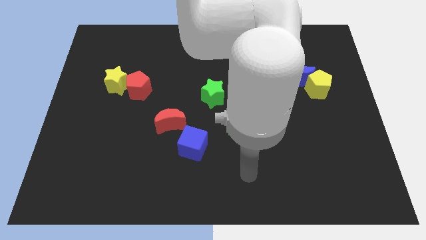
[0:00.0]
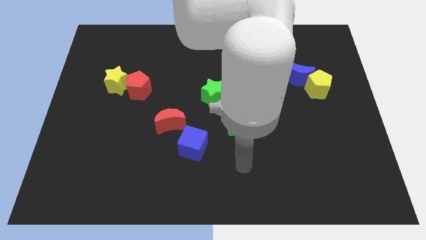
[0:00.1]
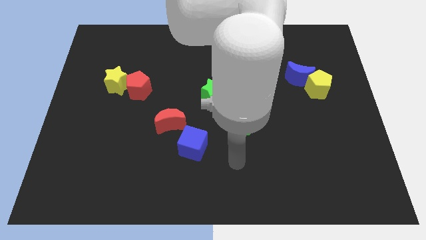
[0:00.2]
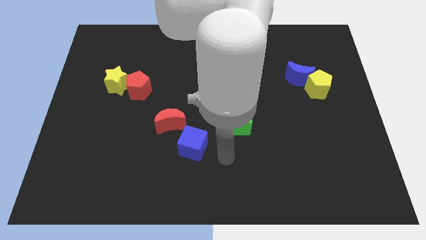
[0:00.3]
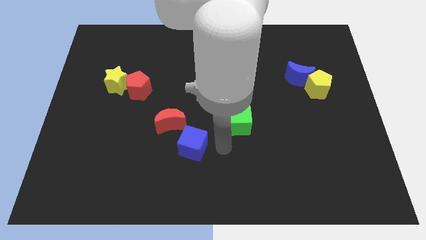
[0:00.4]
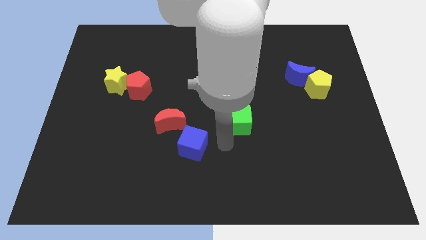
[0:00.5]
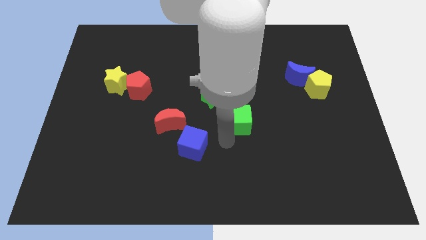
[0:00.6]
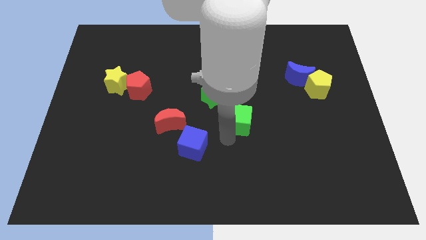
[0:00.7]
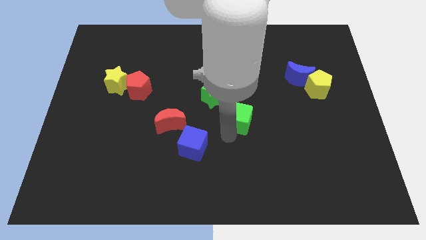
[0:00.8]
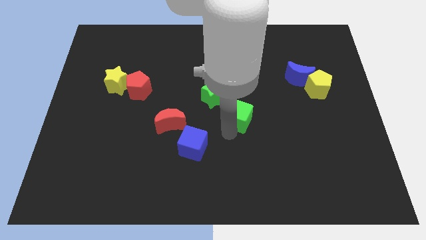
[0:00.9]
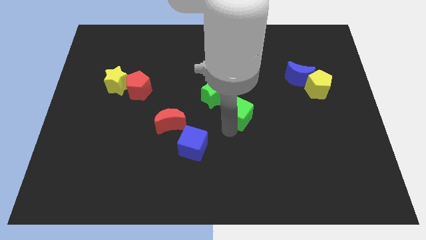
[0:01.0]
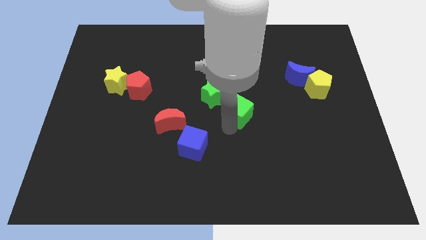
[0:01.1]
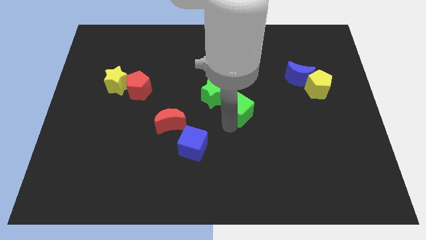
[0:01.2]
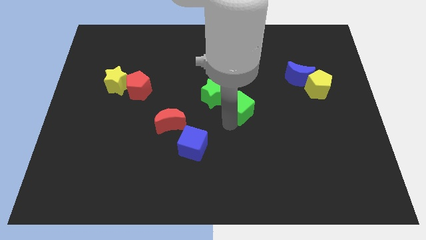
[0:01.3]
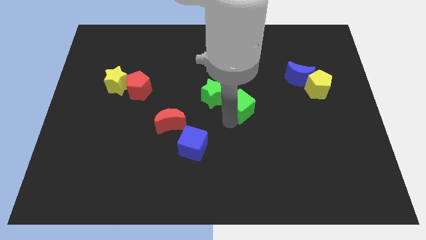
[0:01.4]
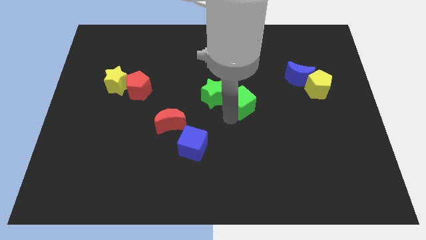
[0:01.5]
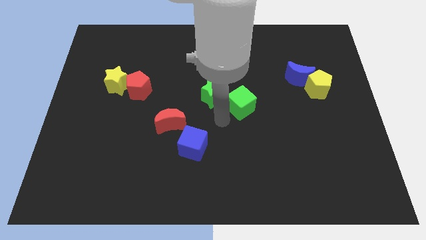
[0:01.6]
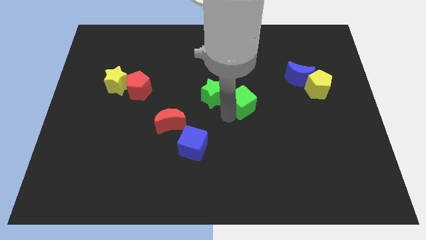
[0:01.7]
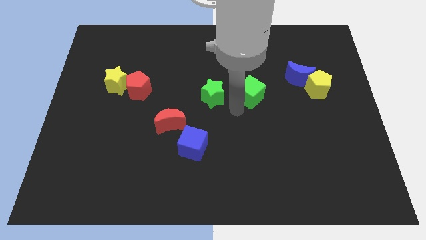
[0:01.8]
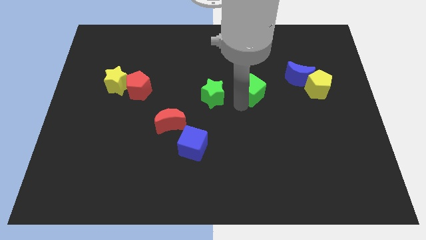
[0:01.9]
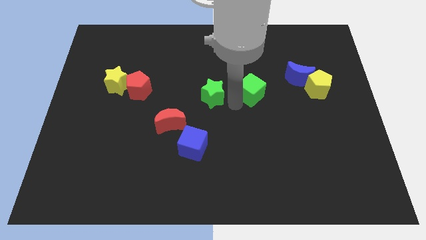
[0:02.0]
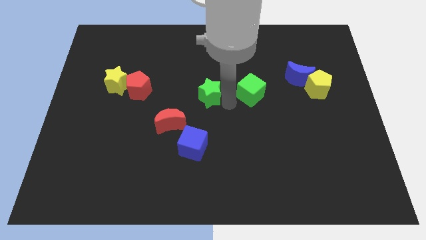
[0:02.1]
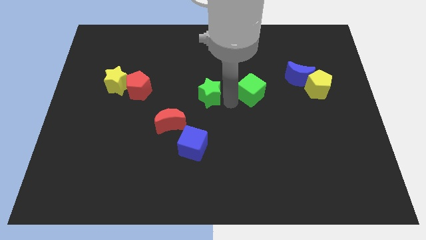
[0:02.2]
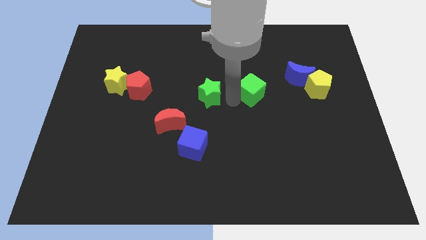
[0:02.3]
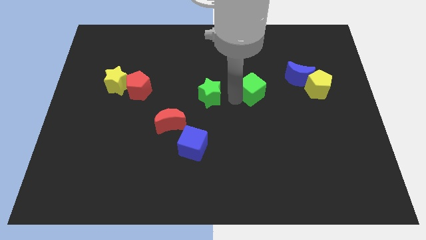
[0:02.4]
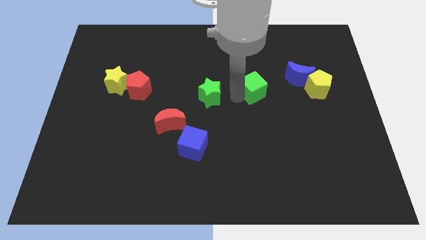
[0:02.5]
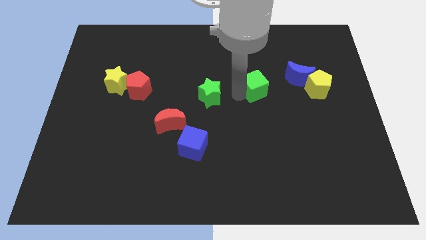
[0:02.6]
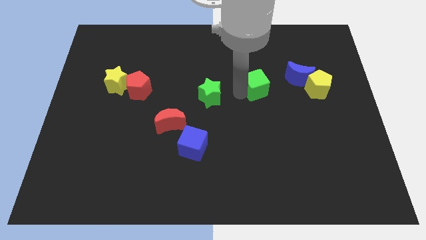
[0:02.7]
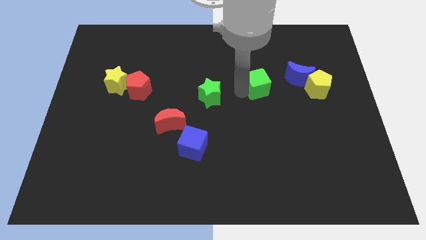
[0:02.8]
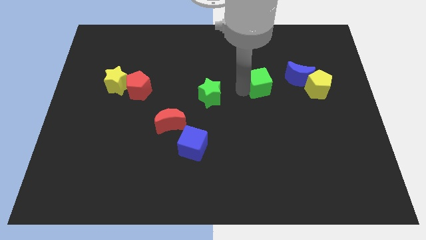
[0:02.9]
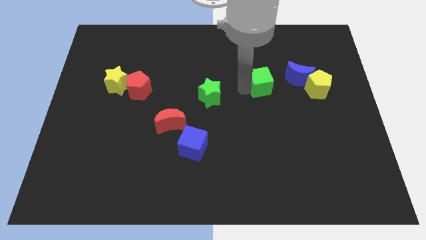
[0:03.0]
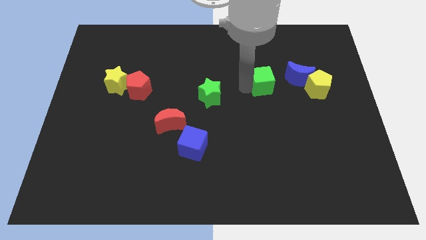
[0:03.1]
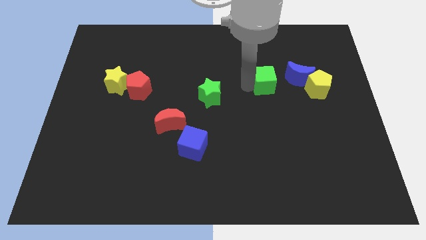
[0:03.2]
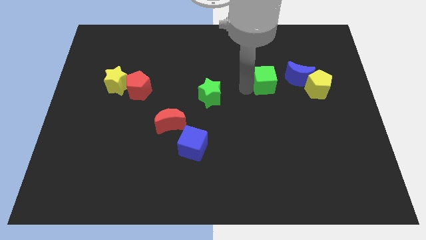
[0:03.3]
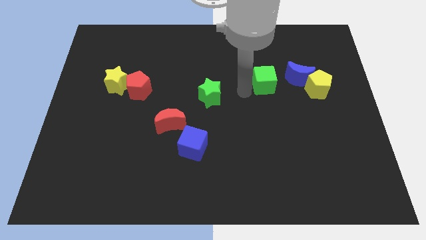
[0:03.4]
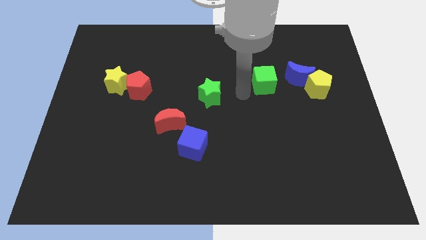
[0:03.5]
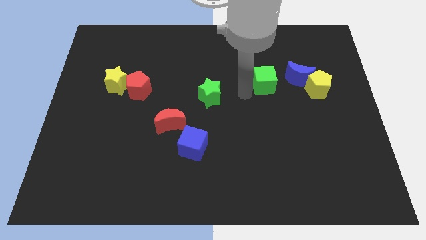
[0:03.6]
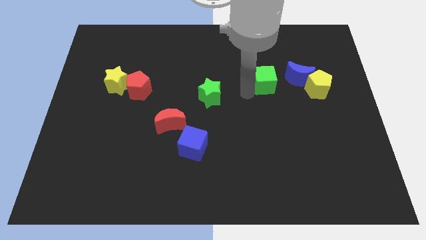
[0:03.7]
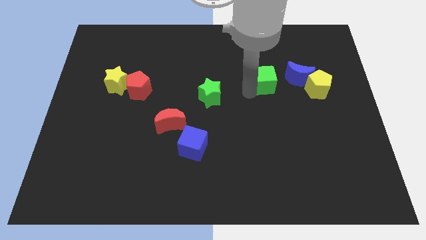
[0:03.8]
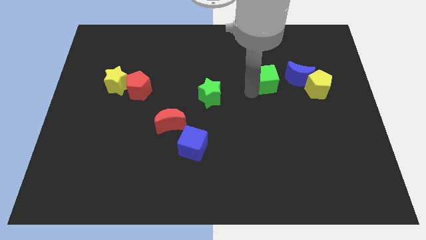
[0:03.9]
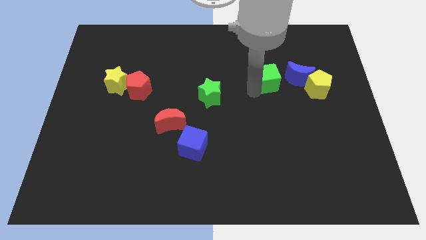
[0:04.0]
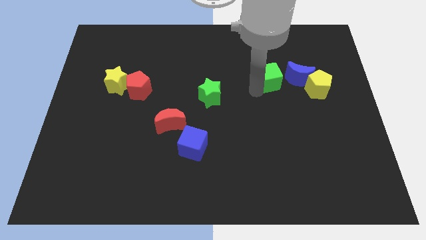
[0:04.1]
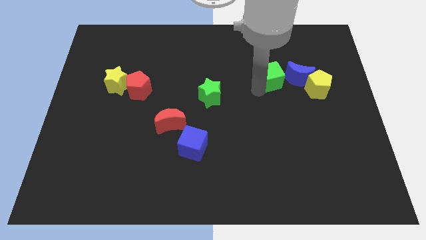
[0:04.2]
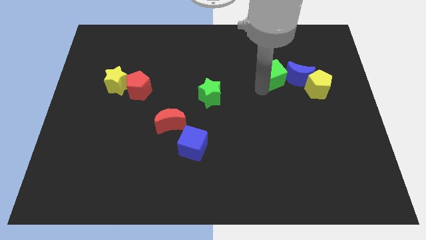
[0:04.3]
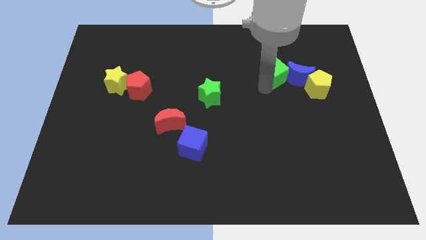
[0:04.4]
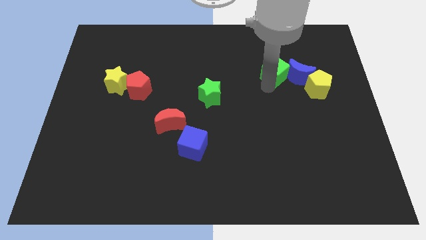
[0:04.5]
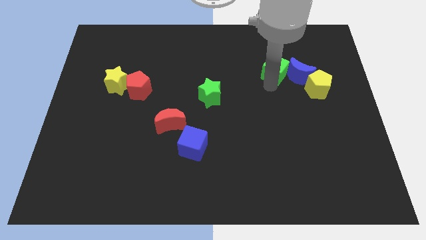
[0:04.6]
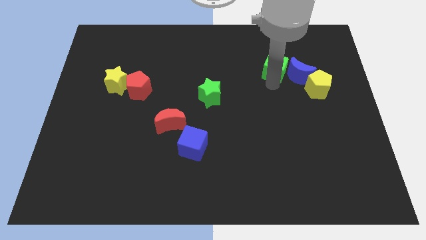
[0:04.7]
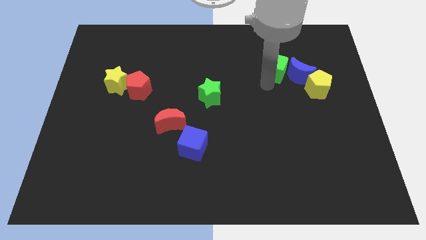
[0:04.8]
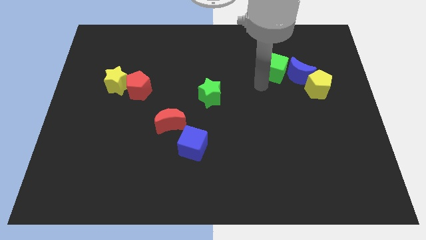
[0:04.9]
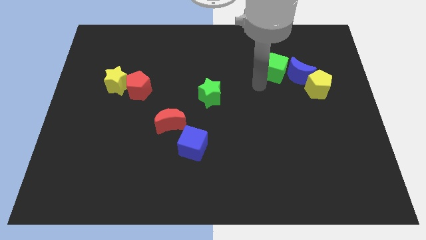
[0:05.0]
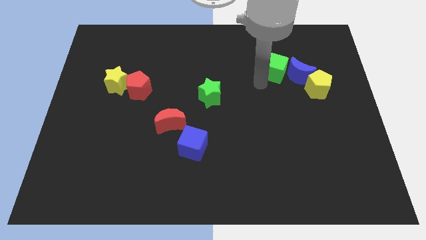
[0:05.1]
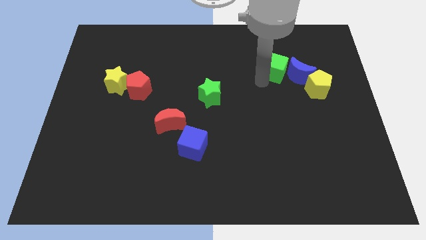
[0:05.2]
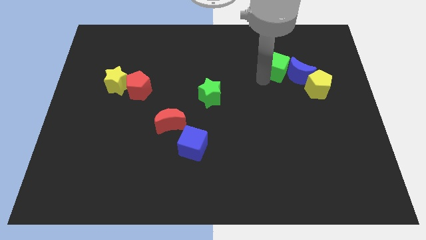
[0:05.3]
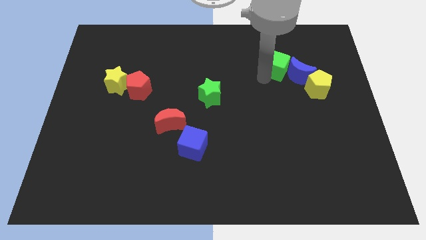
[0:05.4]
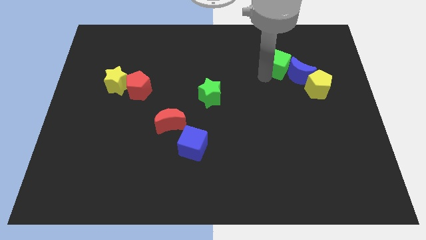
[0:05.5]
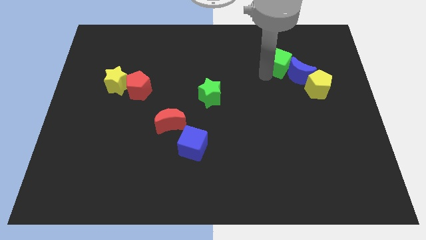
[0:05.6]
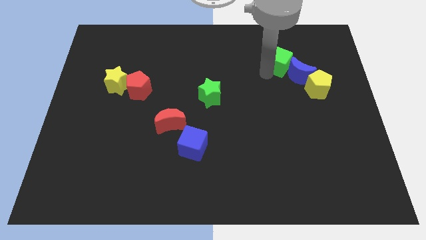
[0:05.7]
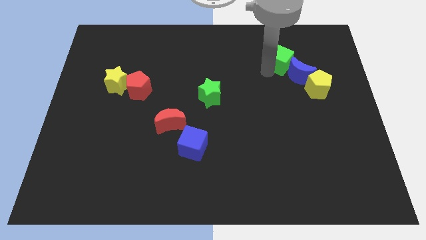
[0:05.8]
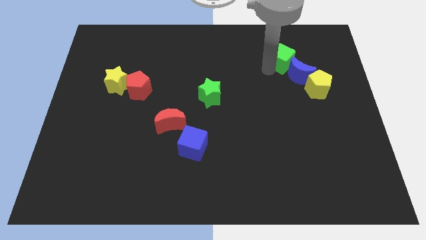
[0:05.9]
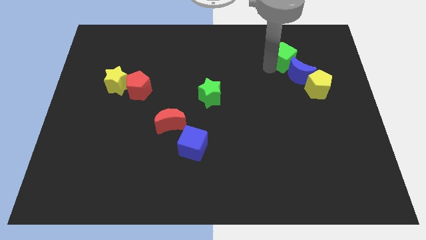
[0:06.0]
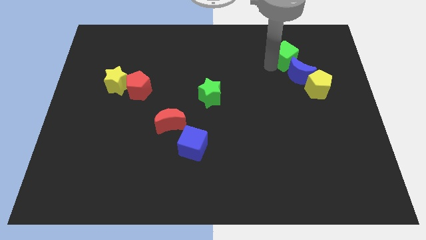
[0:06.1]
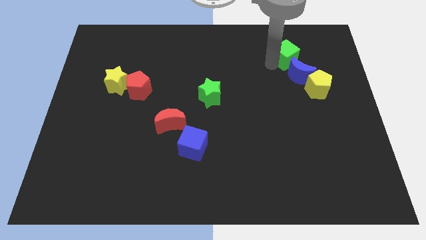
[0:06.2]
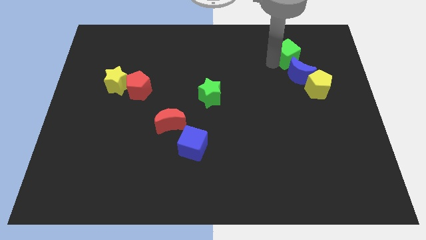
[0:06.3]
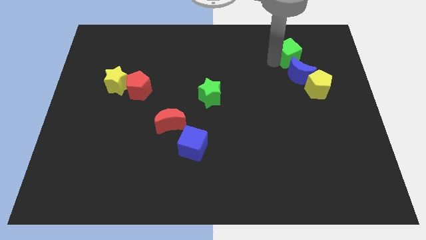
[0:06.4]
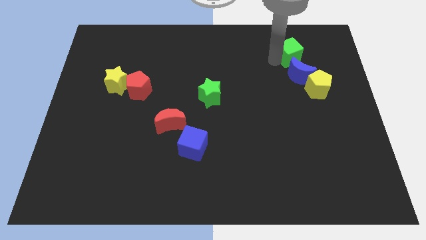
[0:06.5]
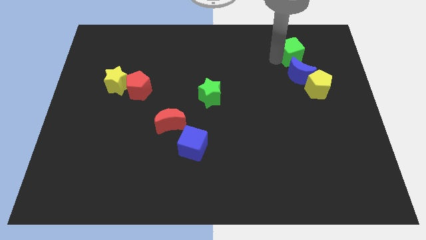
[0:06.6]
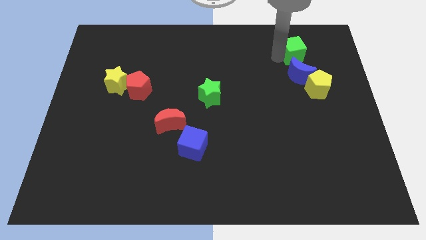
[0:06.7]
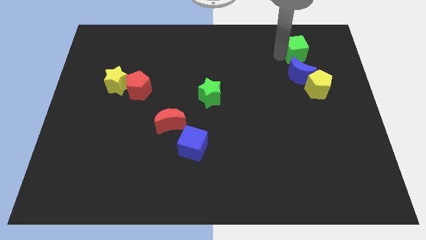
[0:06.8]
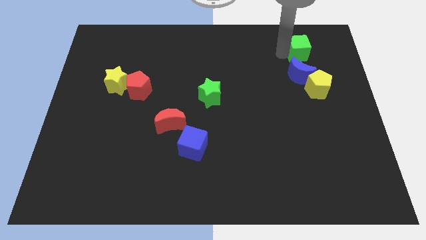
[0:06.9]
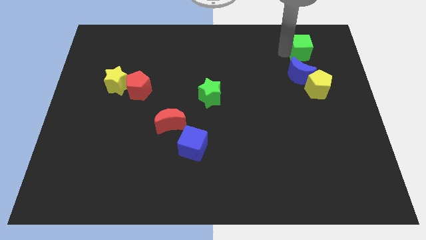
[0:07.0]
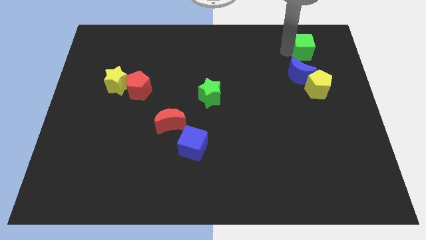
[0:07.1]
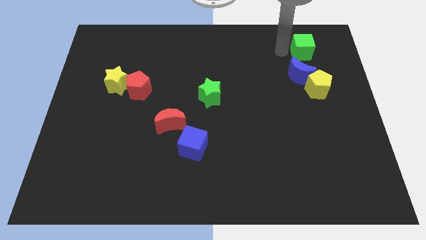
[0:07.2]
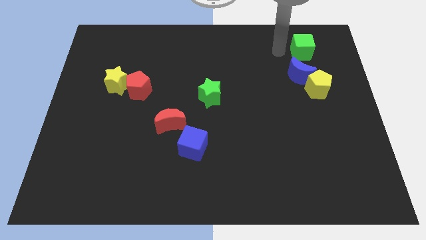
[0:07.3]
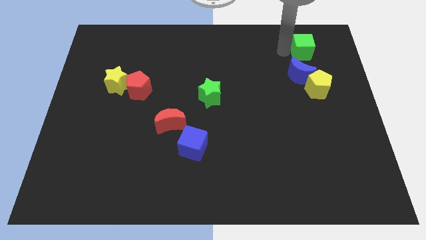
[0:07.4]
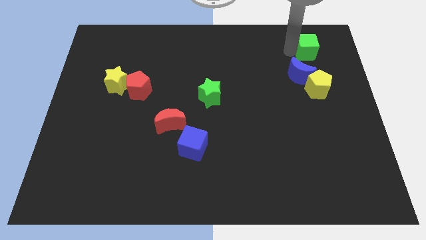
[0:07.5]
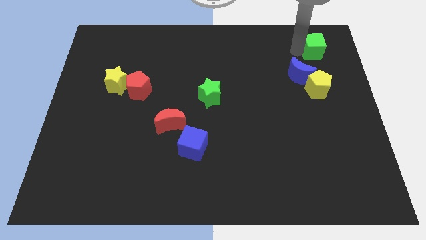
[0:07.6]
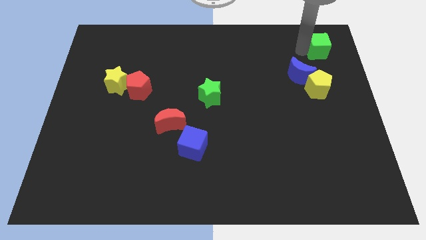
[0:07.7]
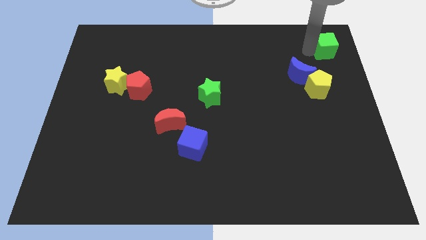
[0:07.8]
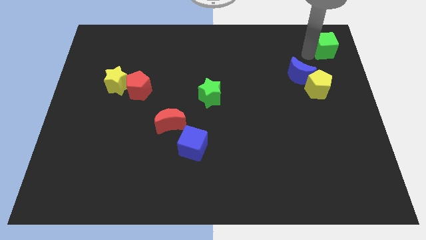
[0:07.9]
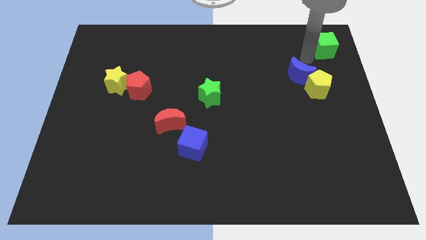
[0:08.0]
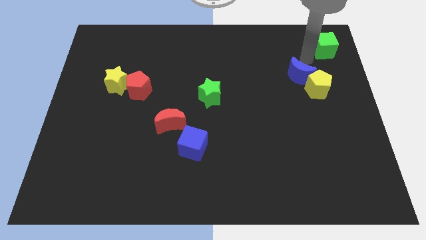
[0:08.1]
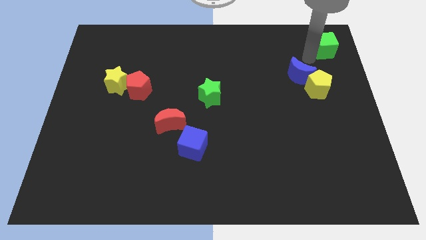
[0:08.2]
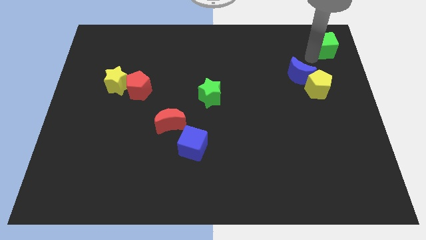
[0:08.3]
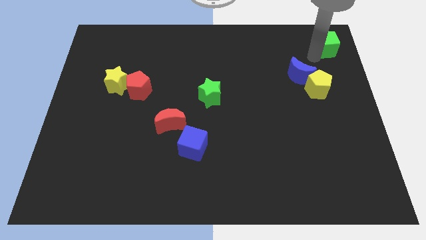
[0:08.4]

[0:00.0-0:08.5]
slide the green cube to the upper right corner
